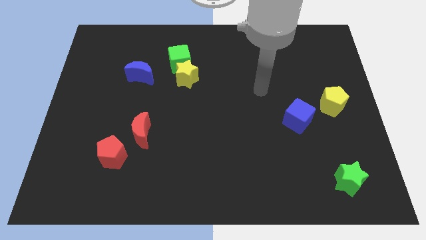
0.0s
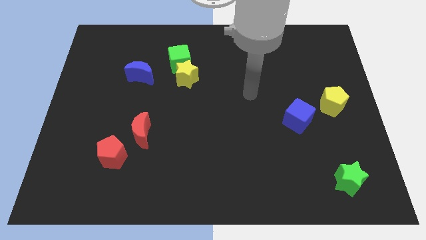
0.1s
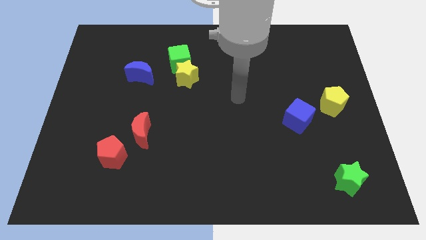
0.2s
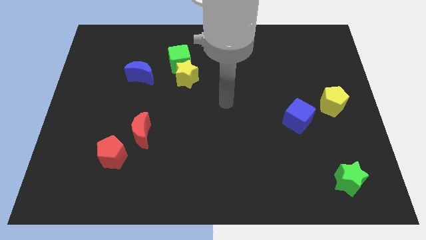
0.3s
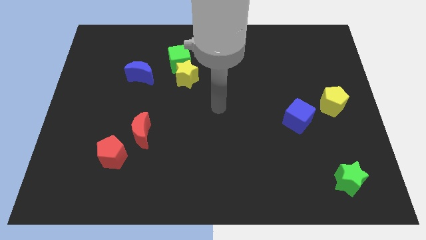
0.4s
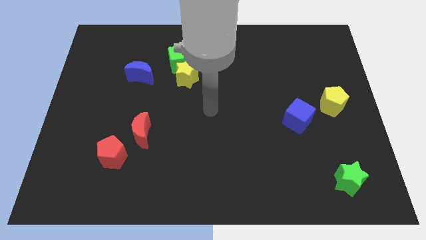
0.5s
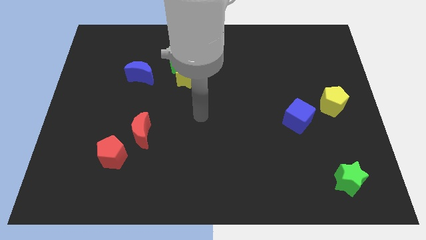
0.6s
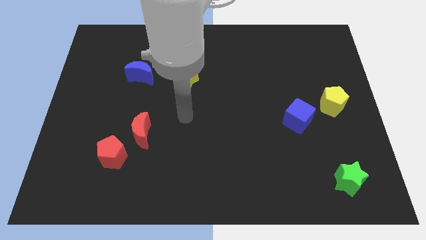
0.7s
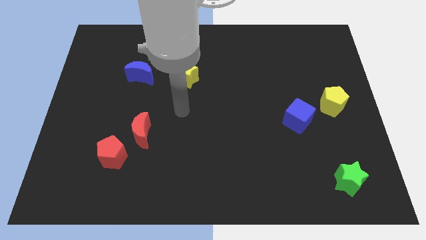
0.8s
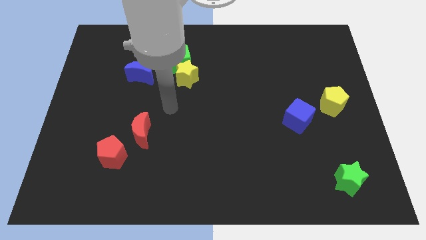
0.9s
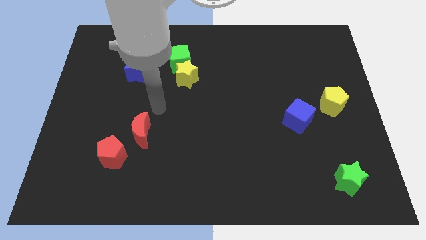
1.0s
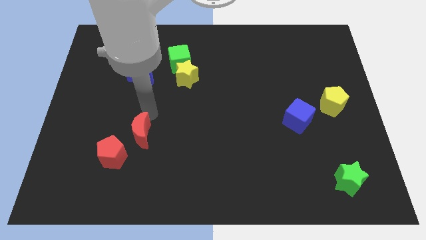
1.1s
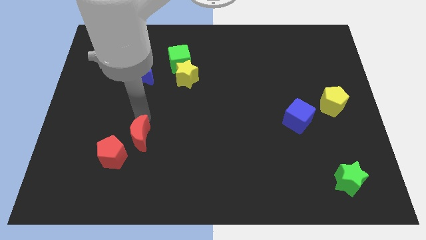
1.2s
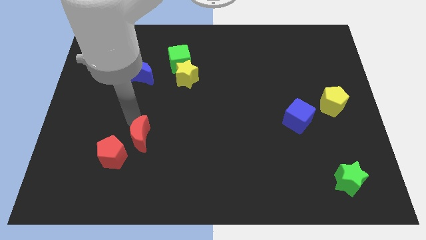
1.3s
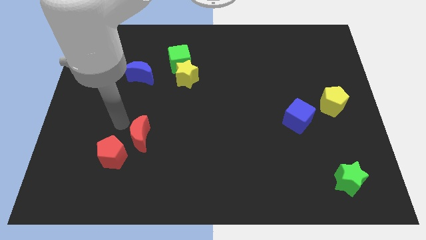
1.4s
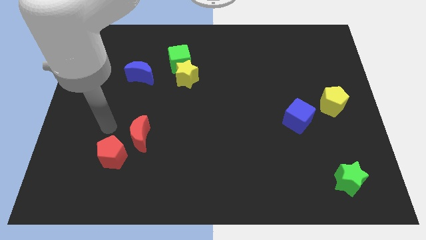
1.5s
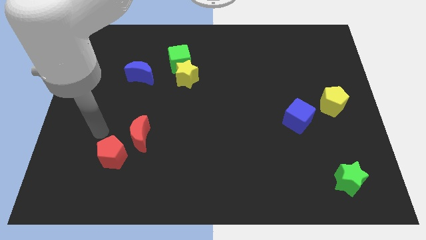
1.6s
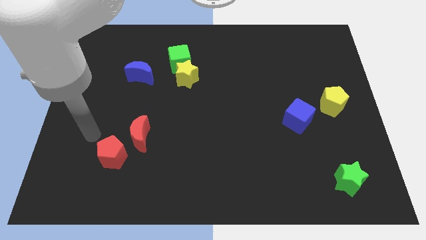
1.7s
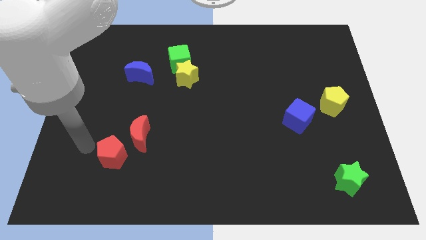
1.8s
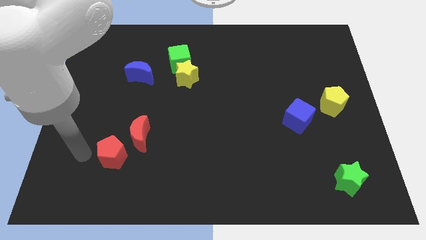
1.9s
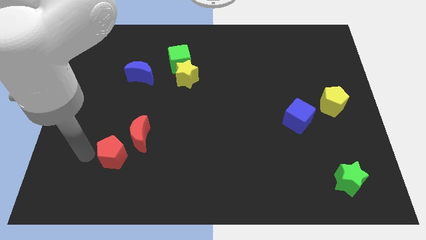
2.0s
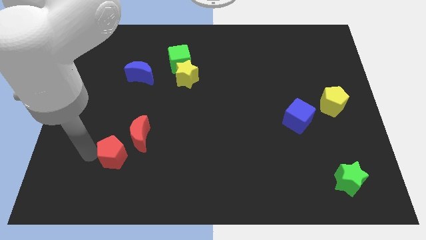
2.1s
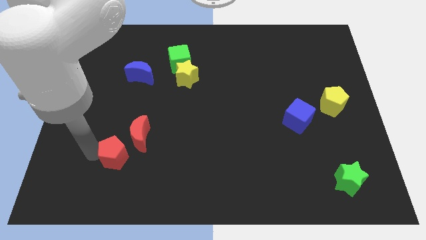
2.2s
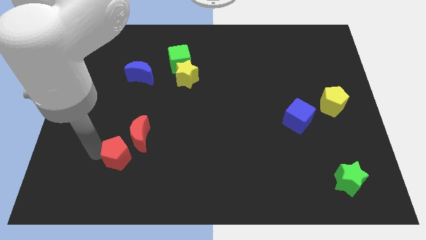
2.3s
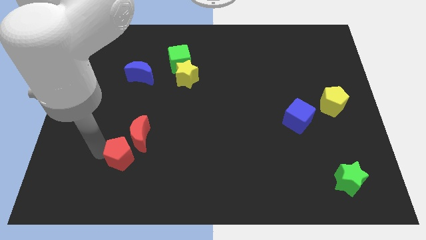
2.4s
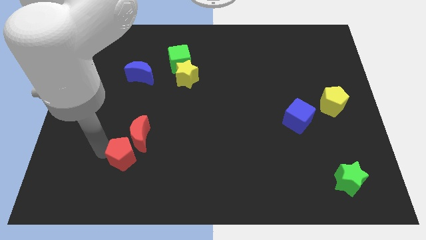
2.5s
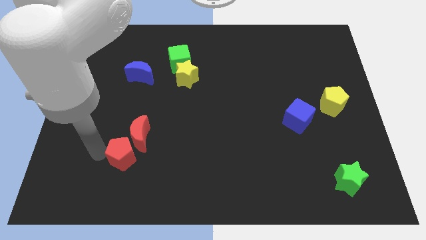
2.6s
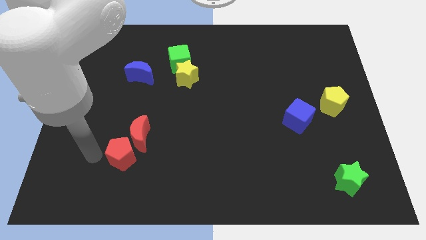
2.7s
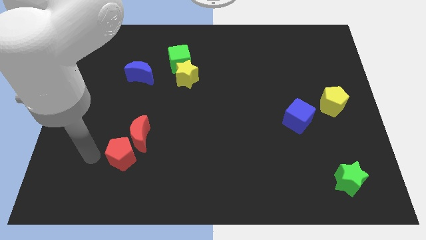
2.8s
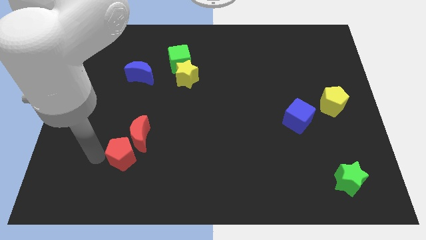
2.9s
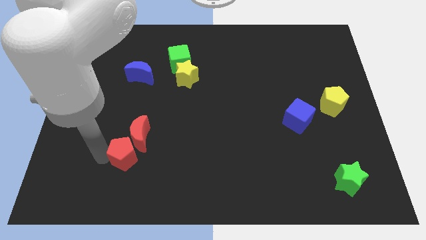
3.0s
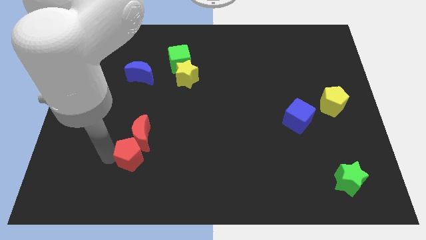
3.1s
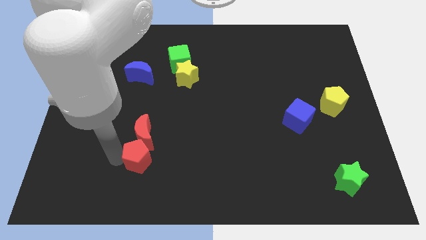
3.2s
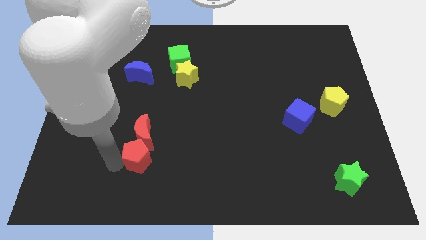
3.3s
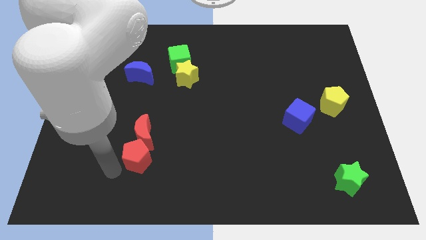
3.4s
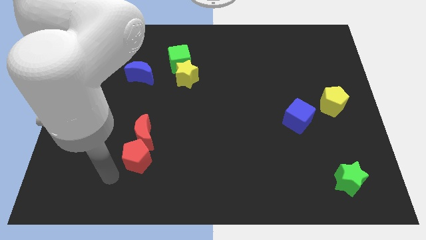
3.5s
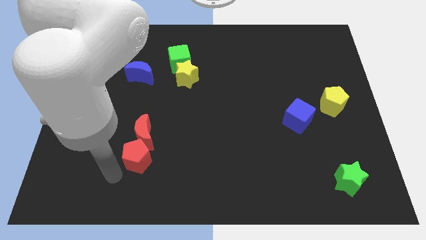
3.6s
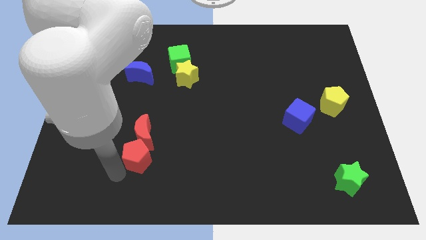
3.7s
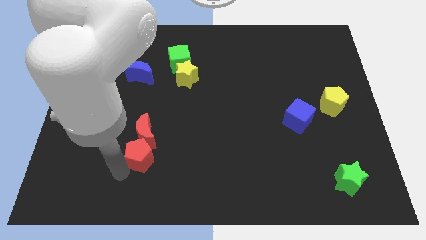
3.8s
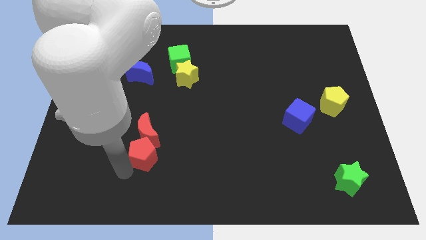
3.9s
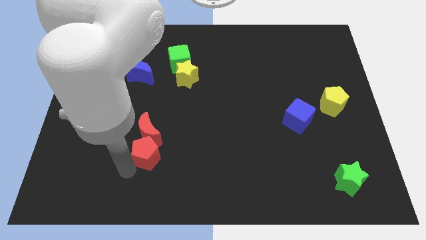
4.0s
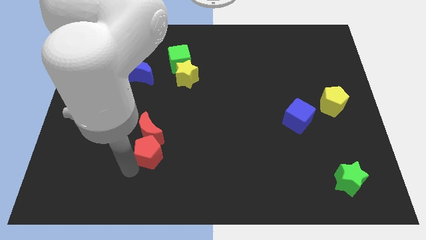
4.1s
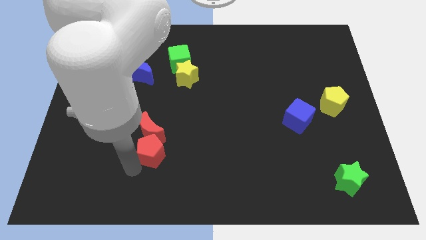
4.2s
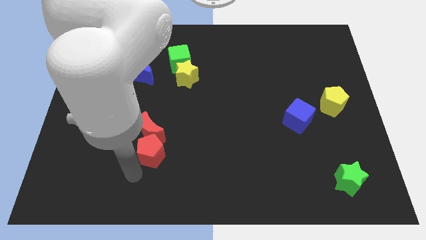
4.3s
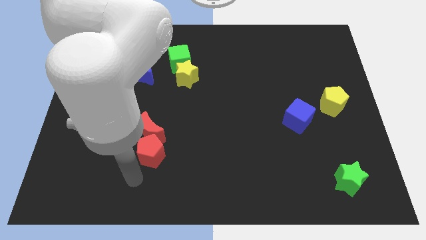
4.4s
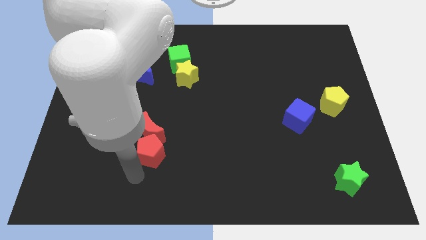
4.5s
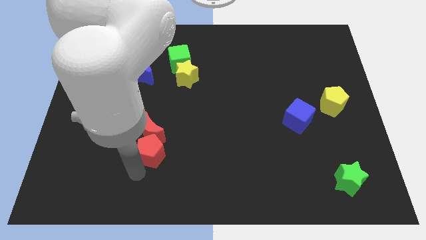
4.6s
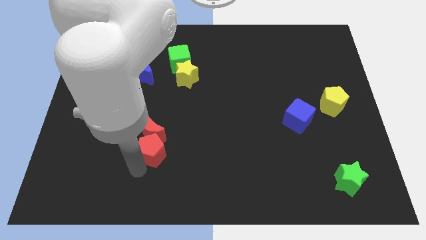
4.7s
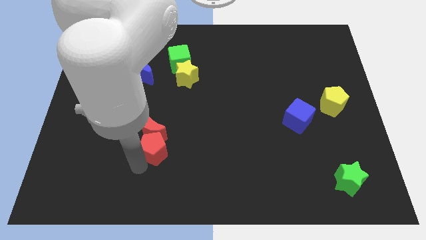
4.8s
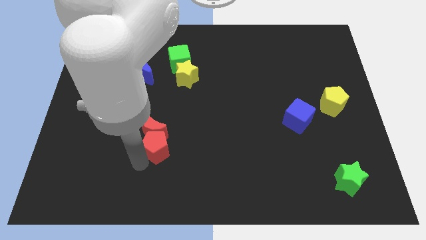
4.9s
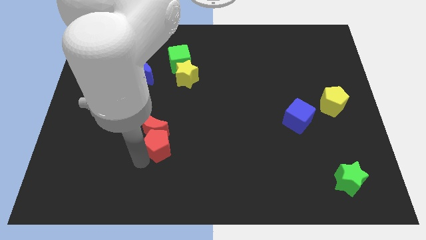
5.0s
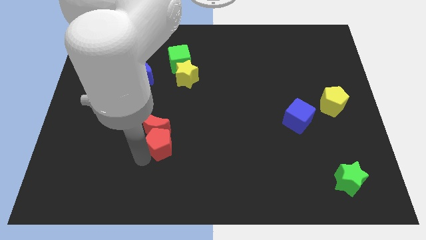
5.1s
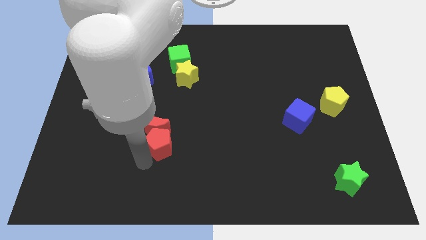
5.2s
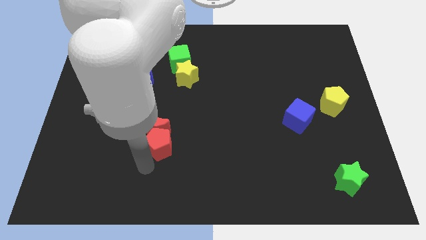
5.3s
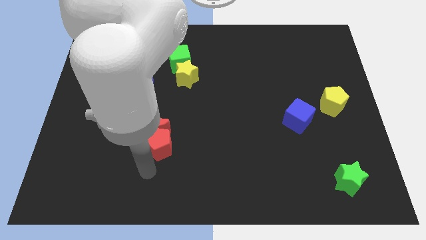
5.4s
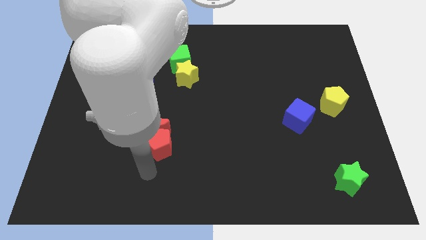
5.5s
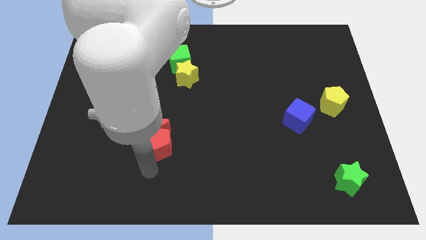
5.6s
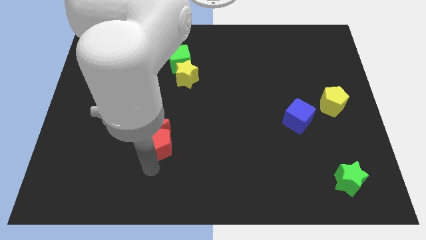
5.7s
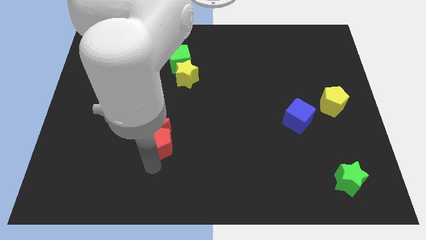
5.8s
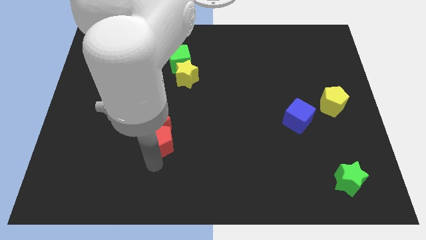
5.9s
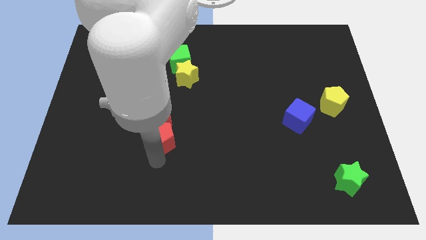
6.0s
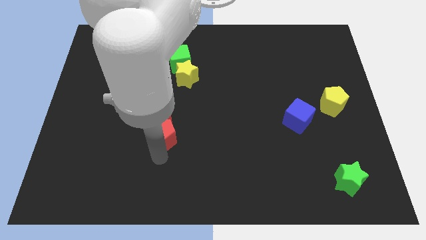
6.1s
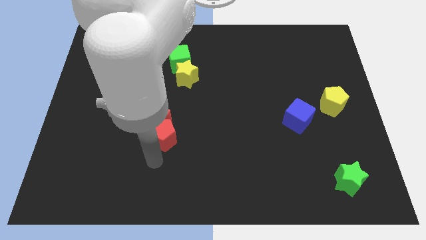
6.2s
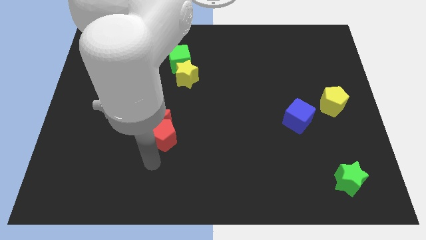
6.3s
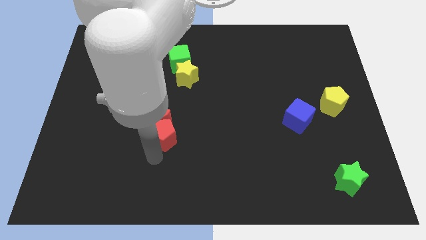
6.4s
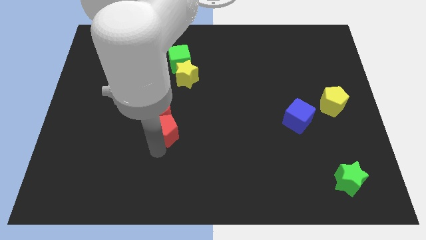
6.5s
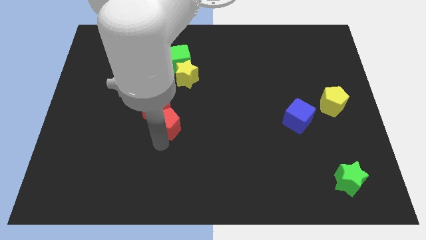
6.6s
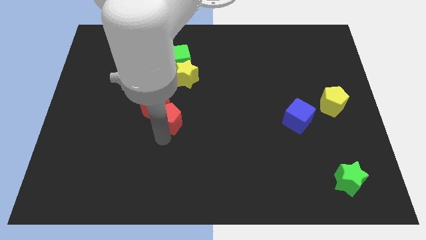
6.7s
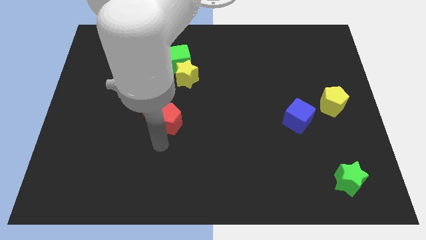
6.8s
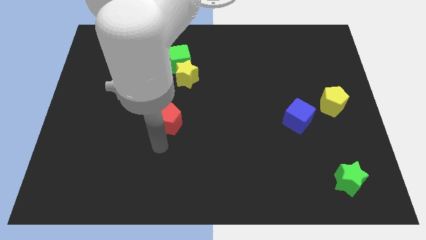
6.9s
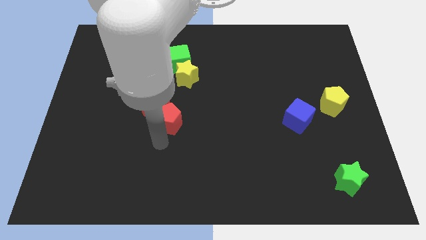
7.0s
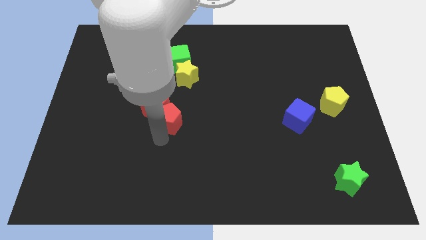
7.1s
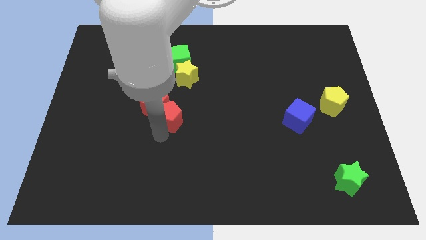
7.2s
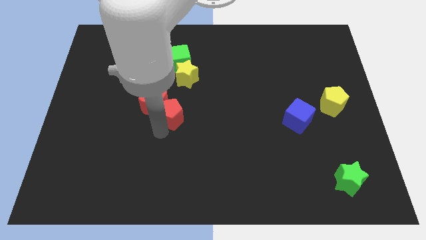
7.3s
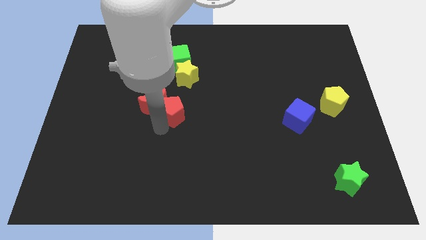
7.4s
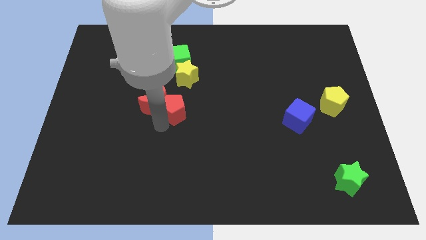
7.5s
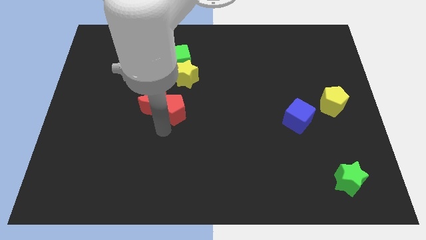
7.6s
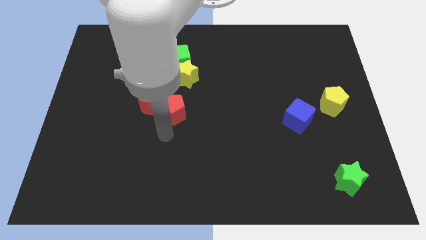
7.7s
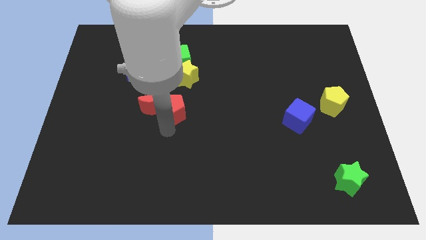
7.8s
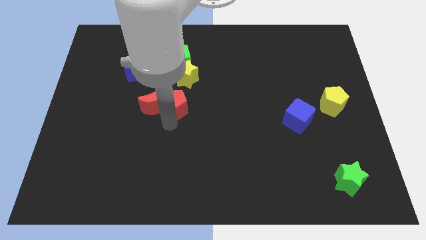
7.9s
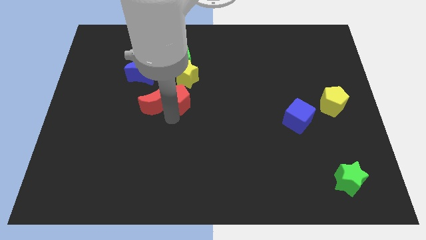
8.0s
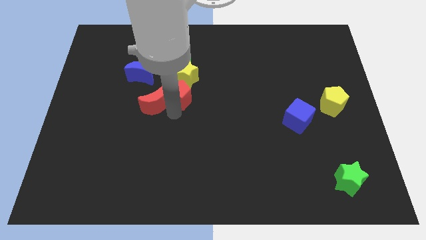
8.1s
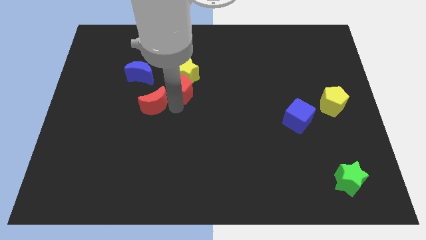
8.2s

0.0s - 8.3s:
put the red pentagon next to the yellow star
